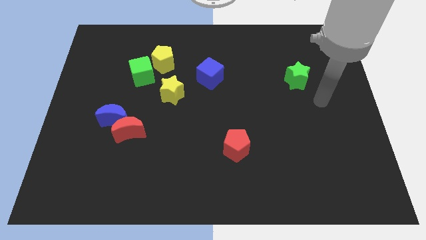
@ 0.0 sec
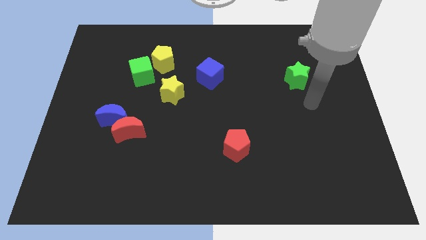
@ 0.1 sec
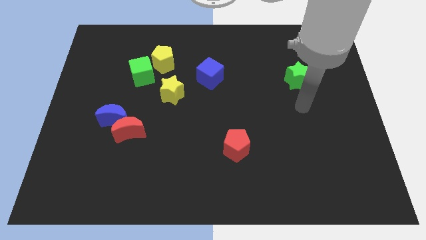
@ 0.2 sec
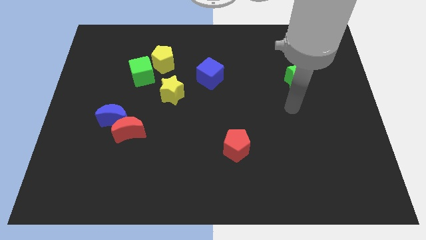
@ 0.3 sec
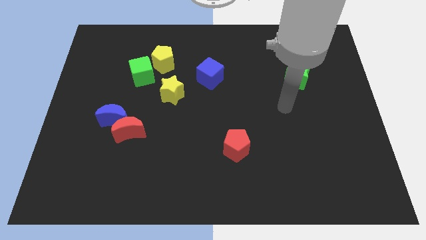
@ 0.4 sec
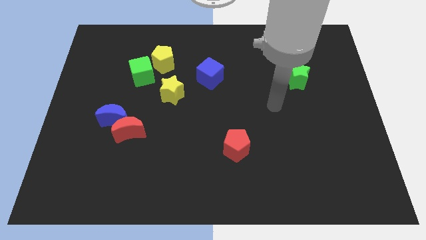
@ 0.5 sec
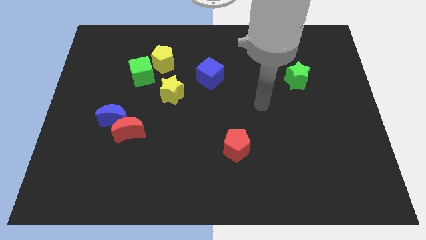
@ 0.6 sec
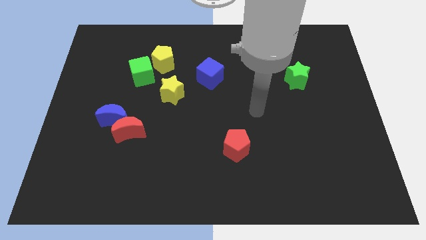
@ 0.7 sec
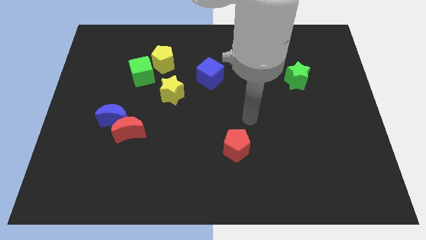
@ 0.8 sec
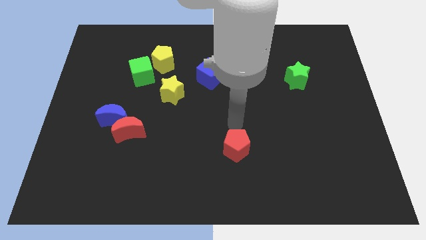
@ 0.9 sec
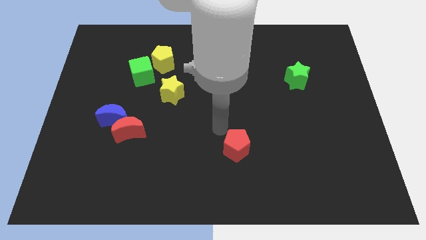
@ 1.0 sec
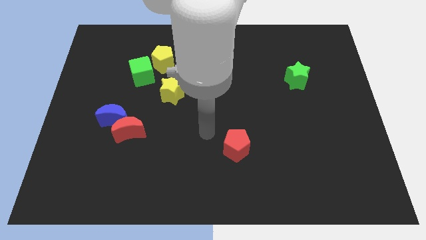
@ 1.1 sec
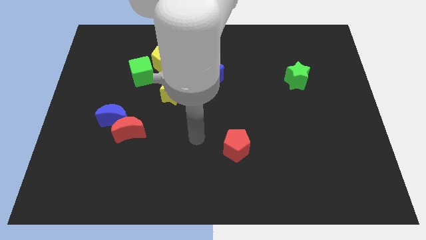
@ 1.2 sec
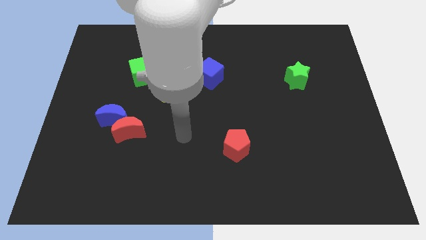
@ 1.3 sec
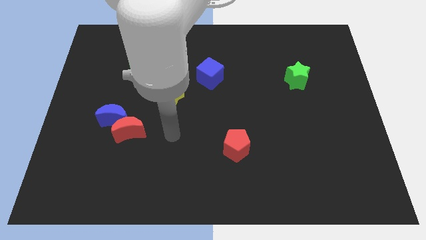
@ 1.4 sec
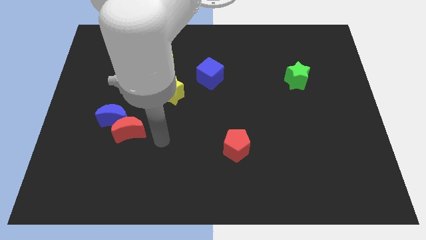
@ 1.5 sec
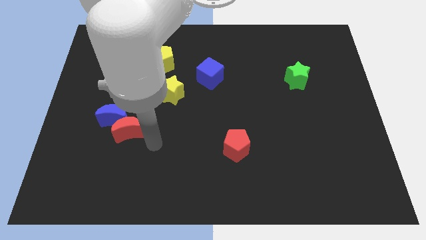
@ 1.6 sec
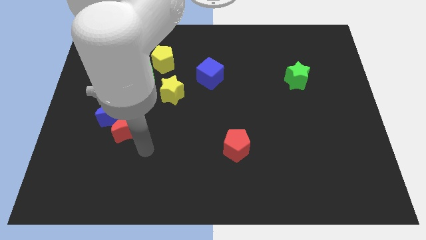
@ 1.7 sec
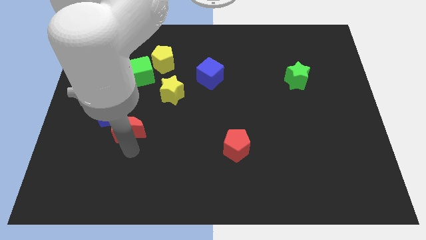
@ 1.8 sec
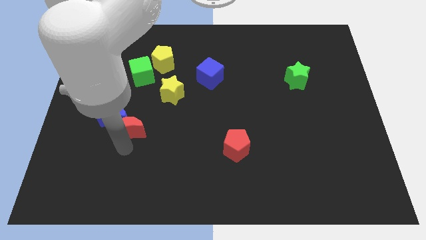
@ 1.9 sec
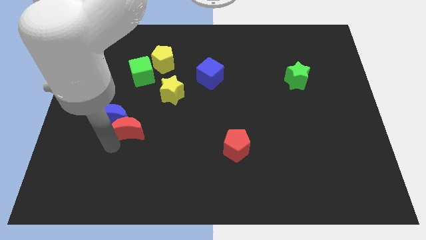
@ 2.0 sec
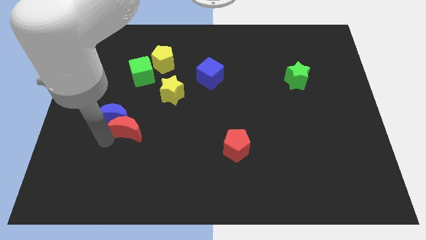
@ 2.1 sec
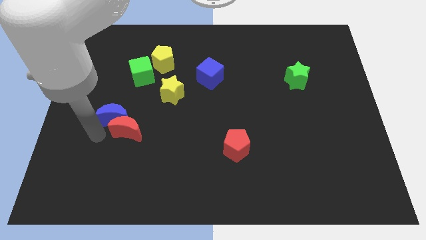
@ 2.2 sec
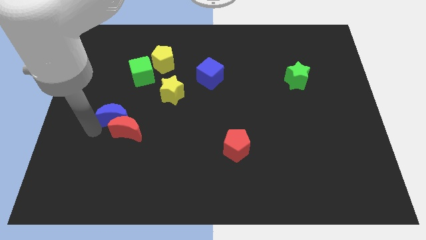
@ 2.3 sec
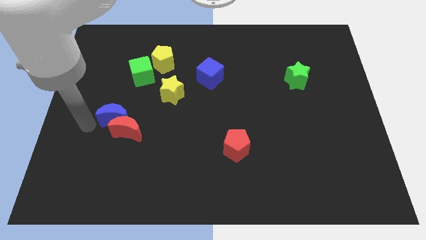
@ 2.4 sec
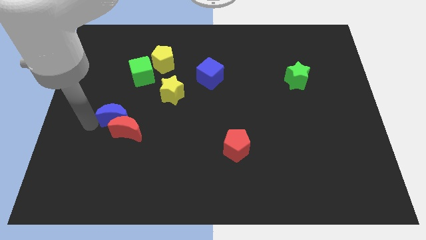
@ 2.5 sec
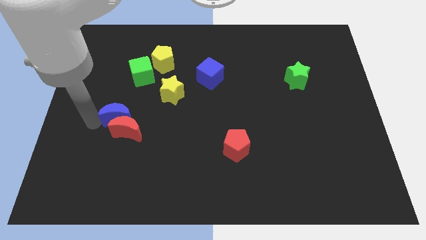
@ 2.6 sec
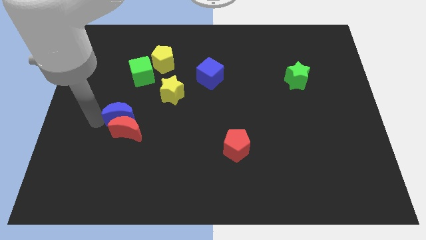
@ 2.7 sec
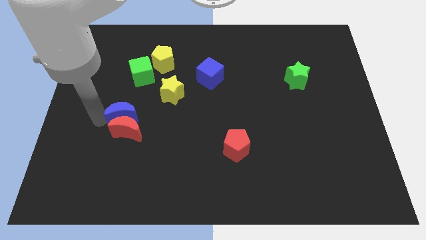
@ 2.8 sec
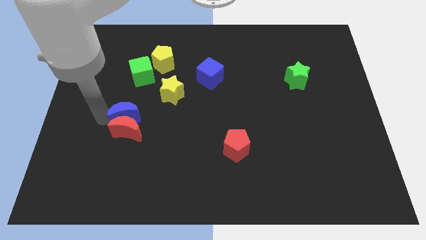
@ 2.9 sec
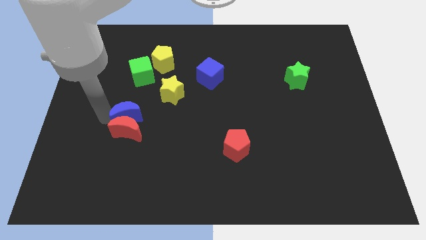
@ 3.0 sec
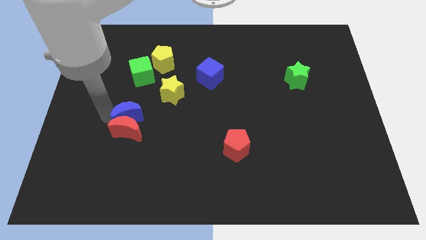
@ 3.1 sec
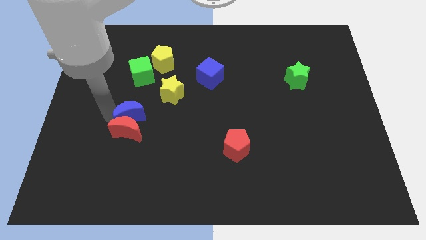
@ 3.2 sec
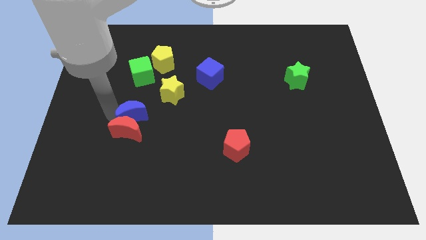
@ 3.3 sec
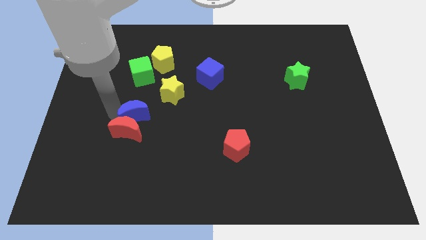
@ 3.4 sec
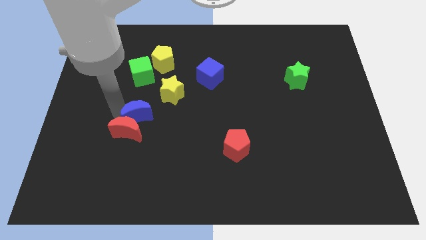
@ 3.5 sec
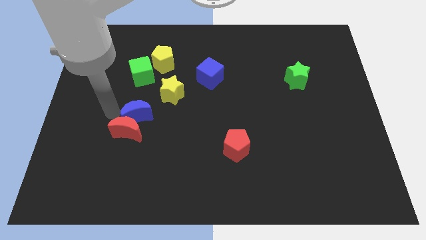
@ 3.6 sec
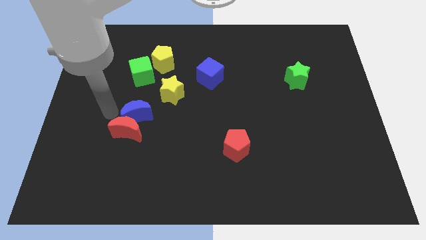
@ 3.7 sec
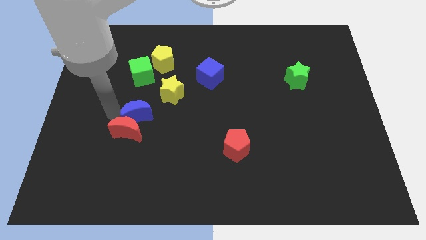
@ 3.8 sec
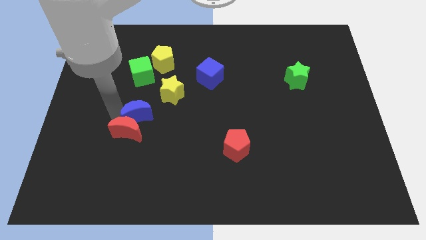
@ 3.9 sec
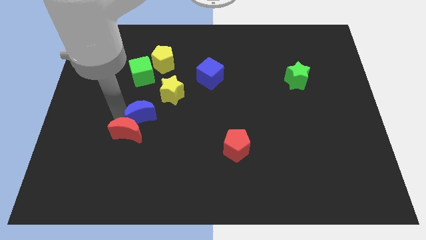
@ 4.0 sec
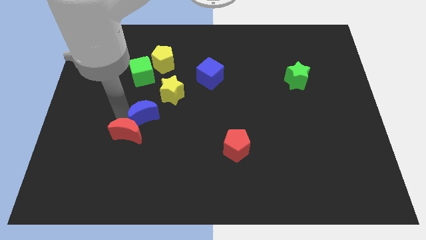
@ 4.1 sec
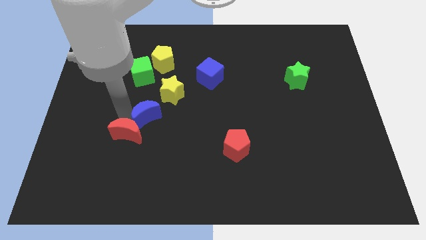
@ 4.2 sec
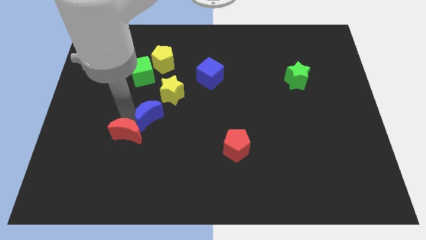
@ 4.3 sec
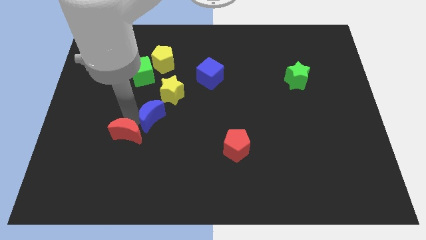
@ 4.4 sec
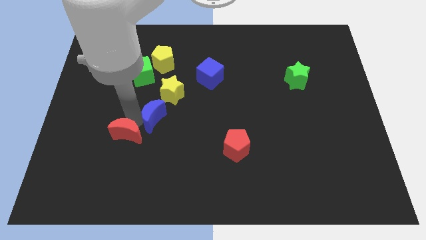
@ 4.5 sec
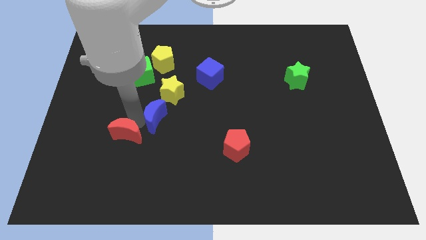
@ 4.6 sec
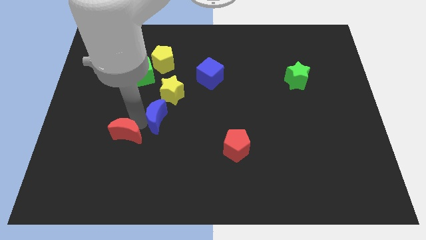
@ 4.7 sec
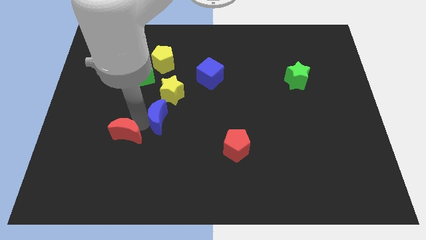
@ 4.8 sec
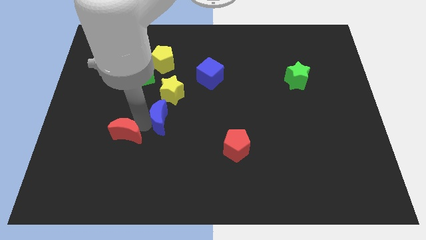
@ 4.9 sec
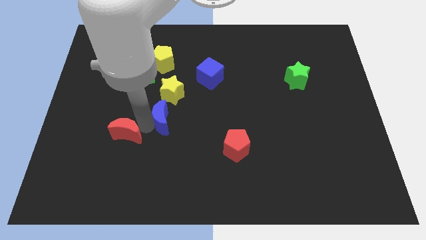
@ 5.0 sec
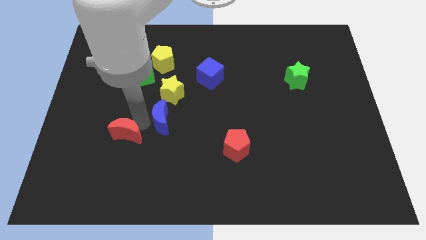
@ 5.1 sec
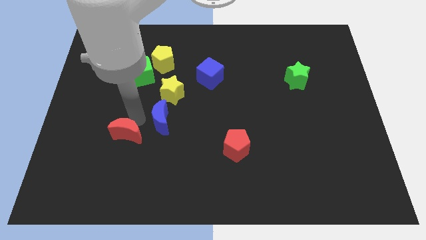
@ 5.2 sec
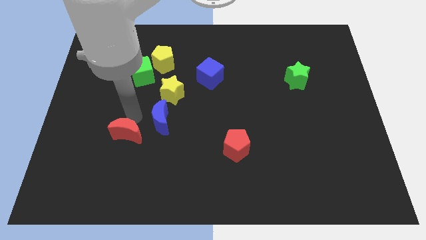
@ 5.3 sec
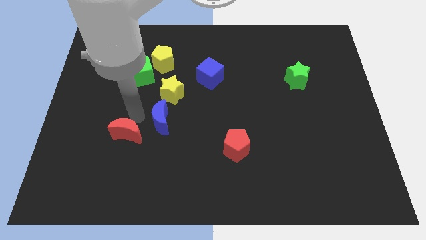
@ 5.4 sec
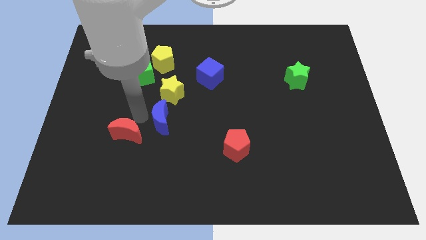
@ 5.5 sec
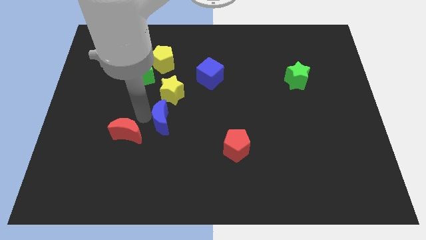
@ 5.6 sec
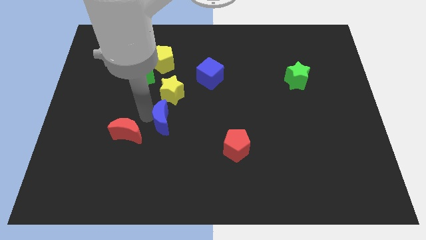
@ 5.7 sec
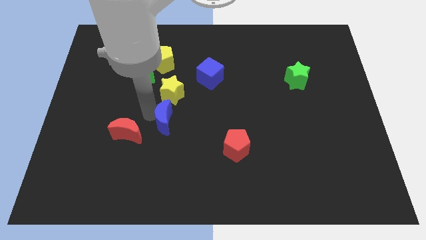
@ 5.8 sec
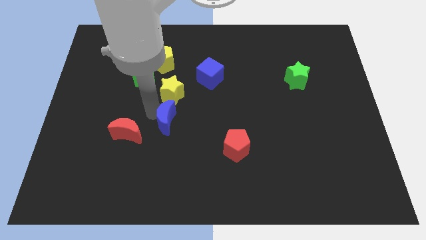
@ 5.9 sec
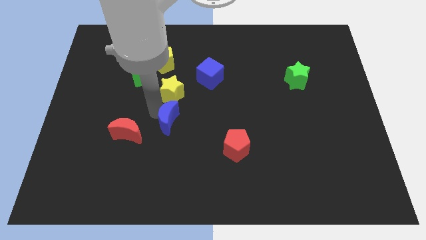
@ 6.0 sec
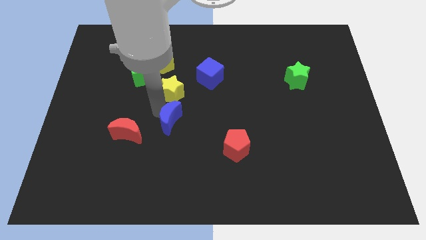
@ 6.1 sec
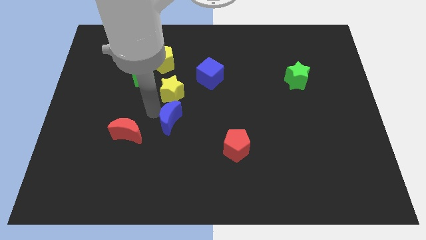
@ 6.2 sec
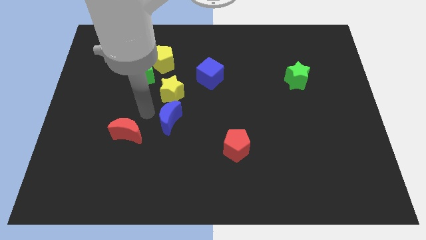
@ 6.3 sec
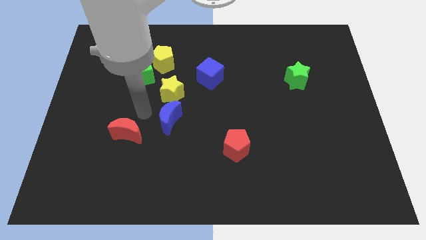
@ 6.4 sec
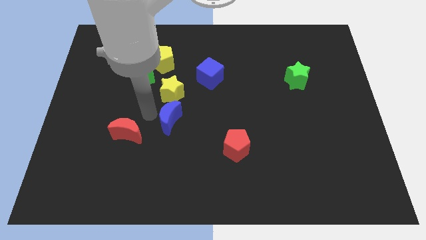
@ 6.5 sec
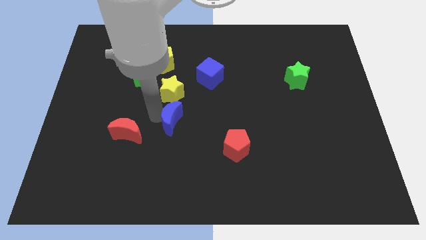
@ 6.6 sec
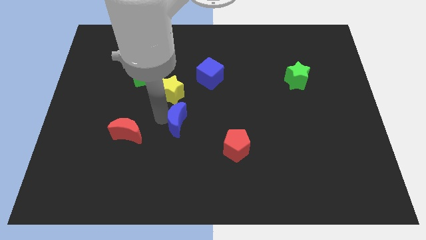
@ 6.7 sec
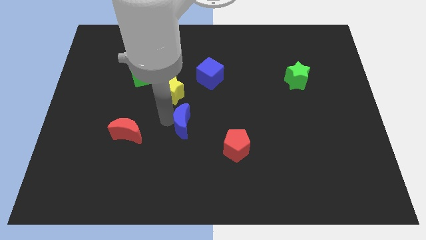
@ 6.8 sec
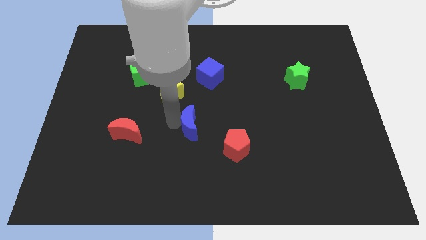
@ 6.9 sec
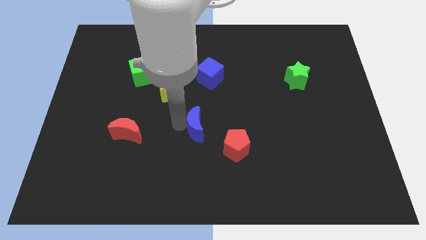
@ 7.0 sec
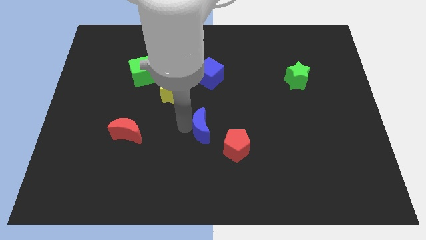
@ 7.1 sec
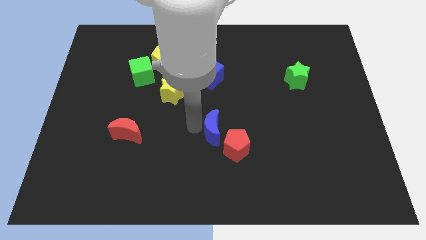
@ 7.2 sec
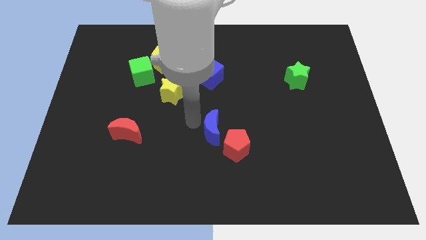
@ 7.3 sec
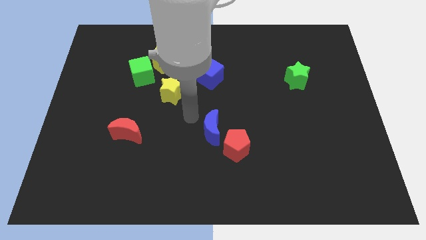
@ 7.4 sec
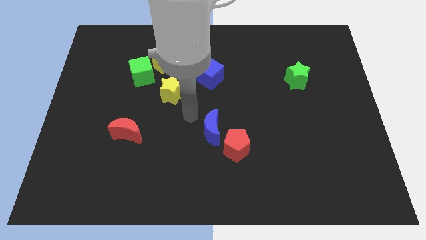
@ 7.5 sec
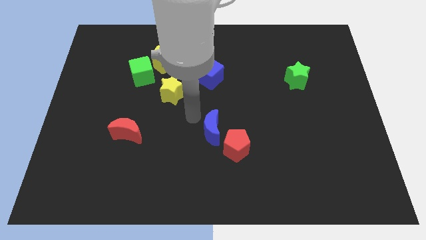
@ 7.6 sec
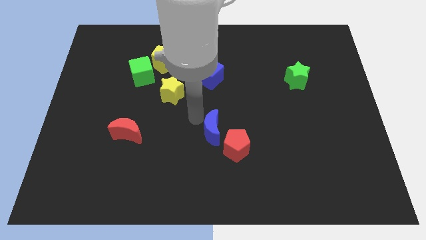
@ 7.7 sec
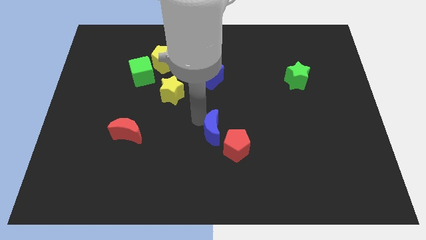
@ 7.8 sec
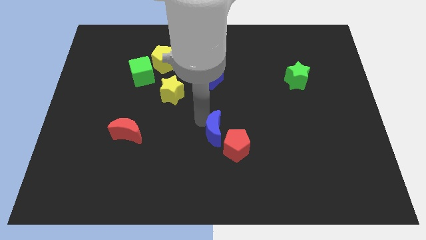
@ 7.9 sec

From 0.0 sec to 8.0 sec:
slide the blue moon next to the red pentagon
